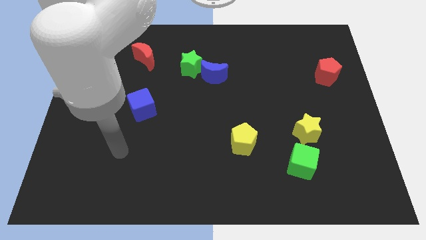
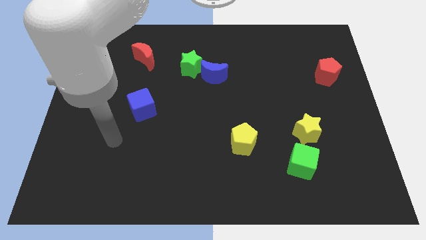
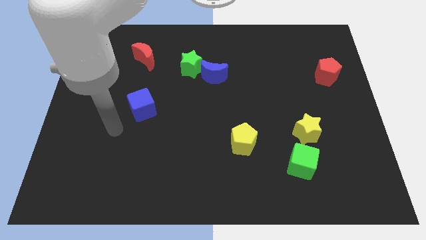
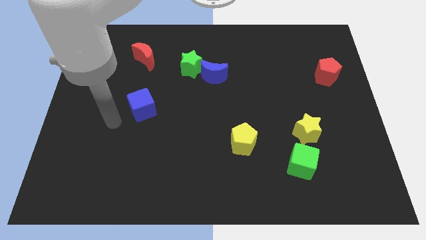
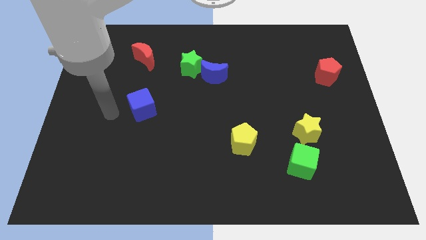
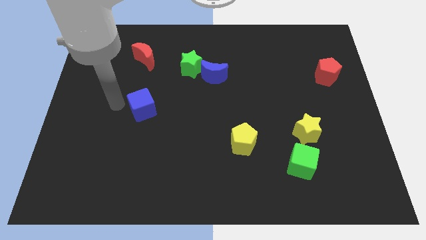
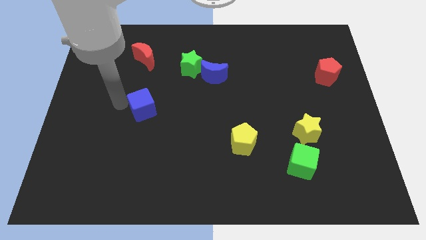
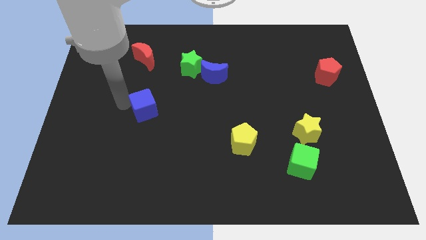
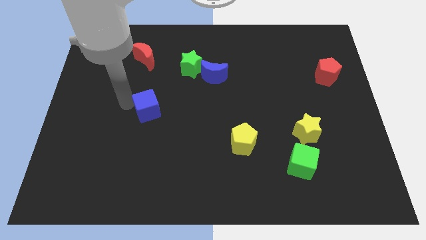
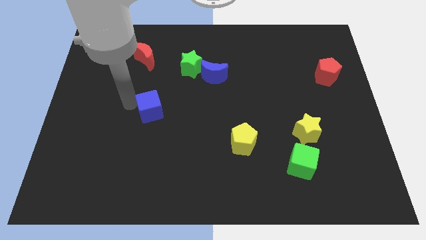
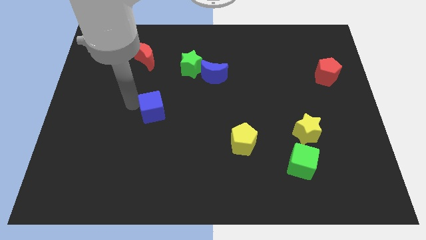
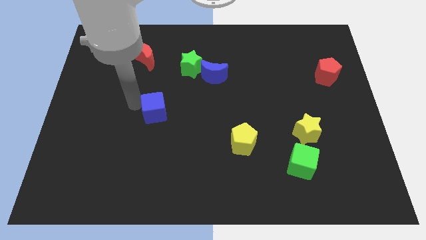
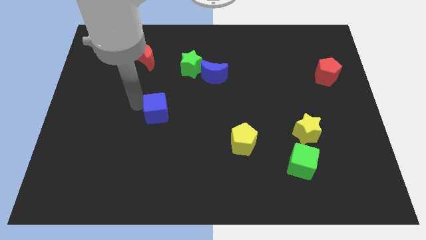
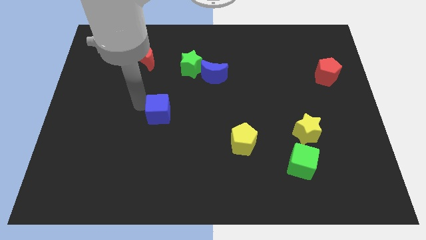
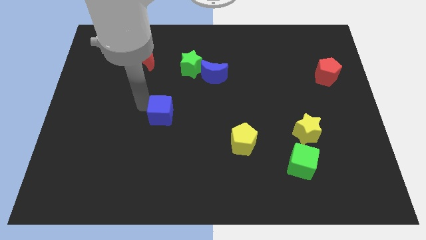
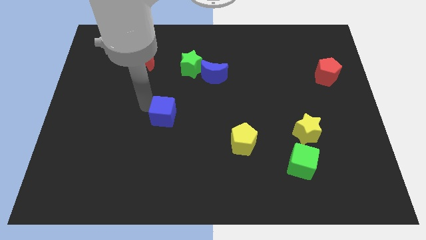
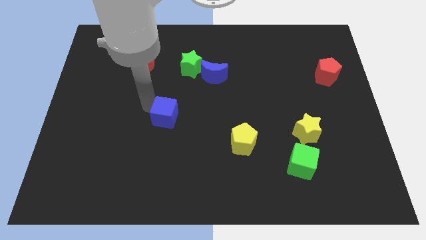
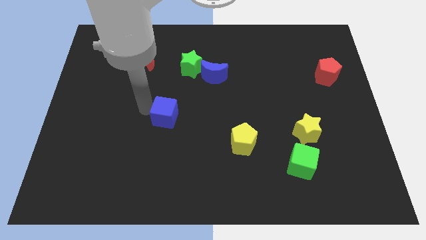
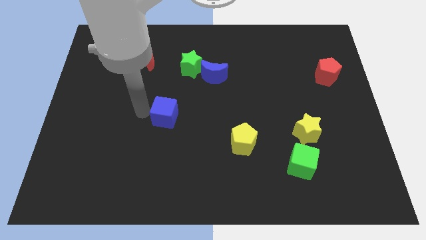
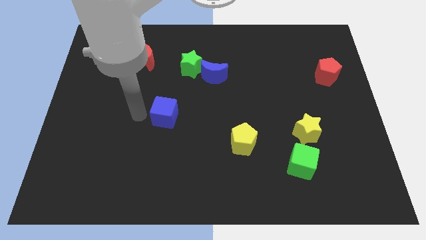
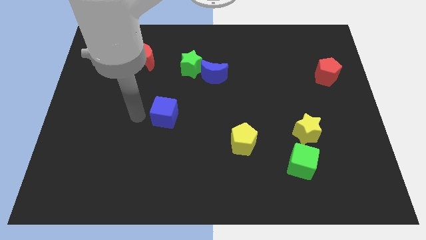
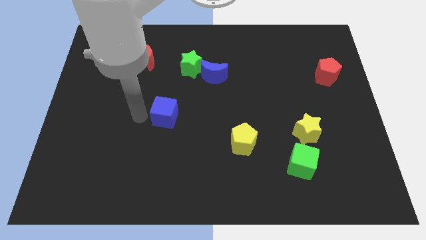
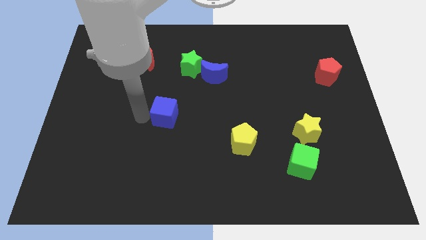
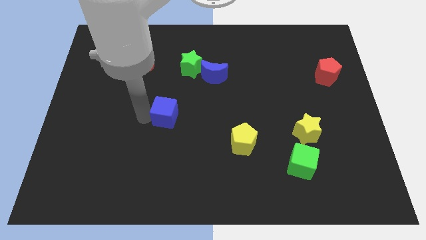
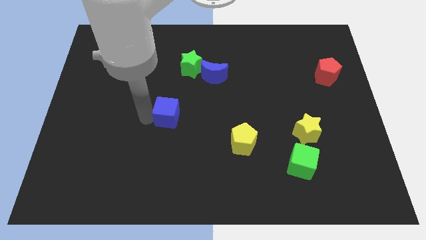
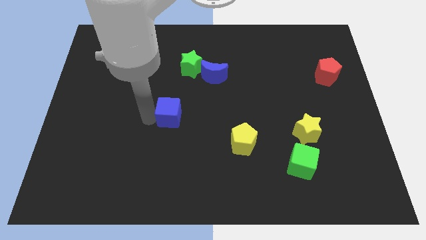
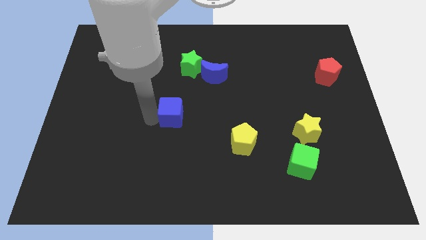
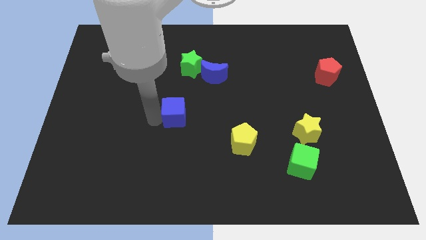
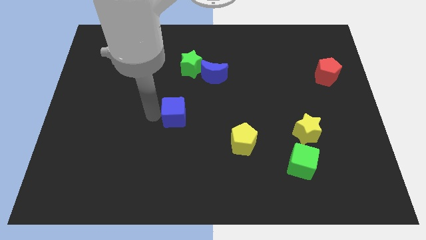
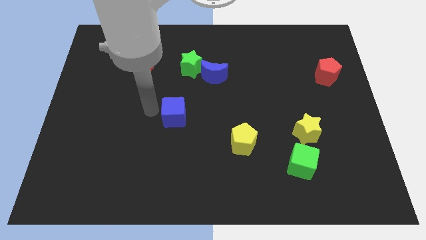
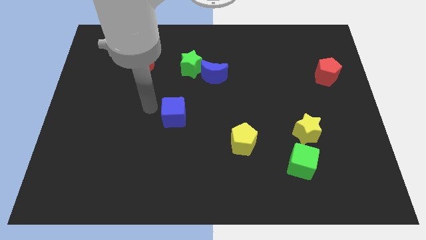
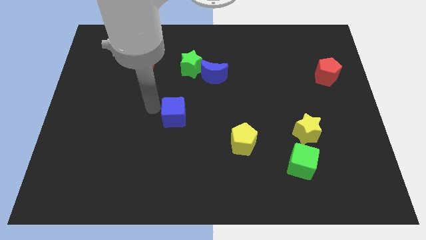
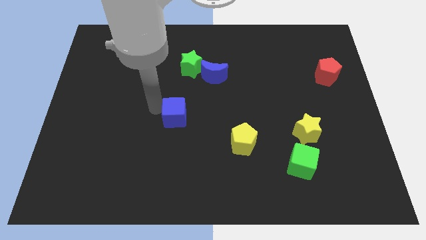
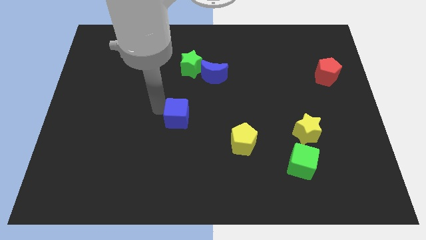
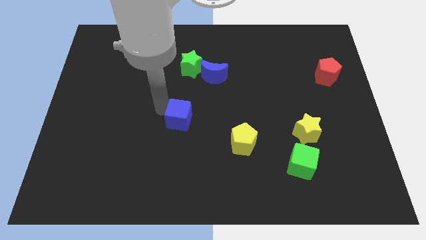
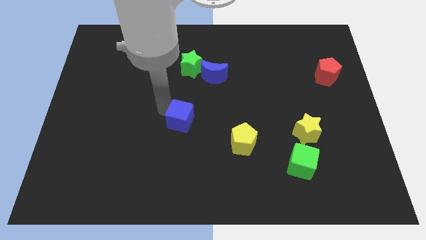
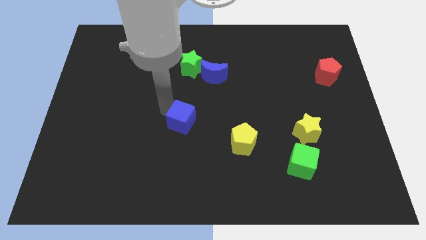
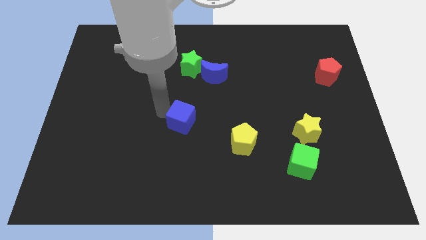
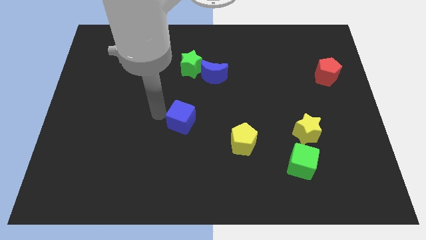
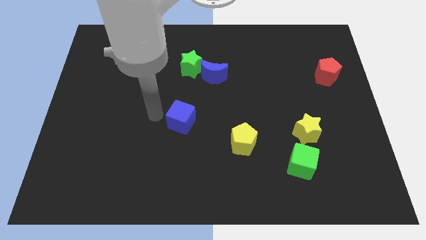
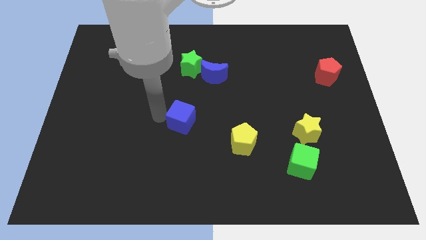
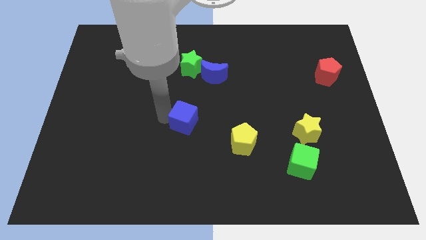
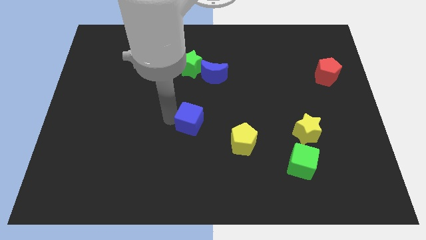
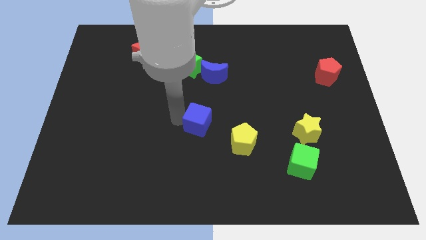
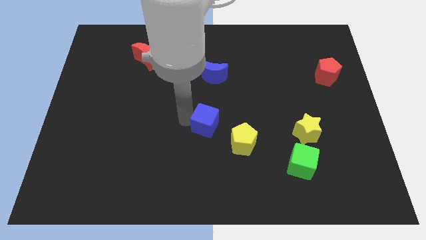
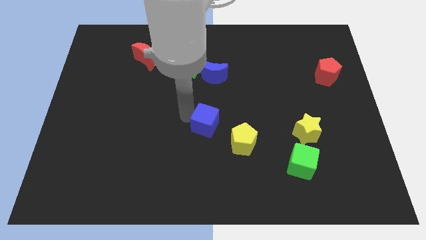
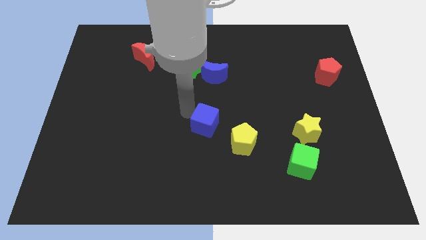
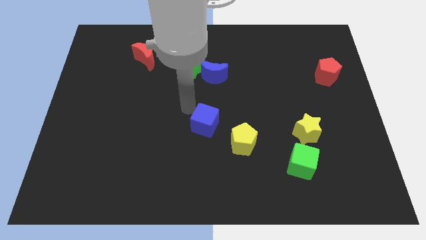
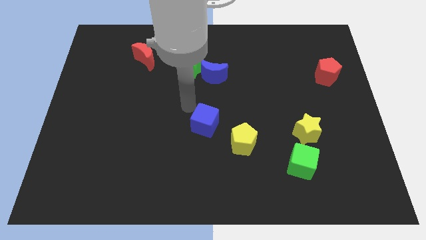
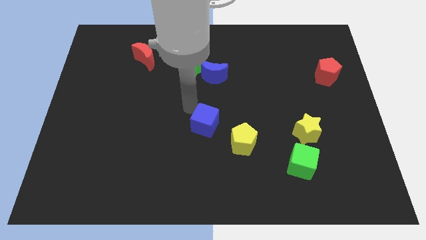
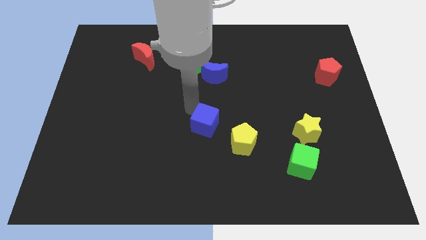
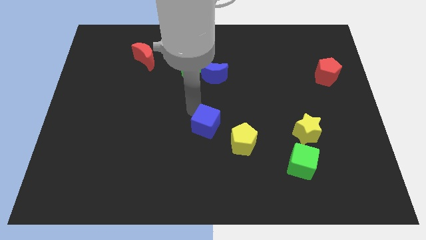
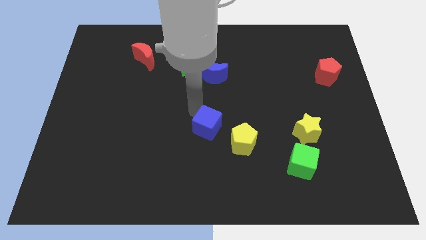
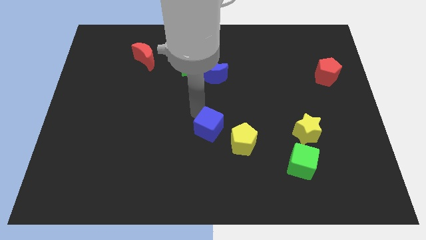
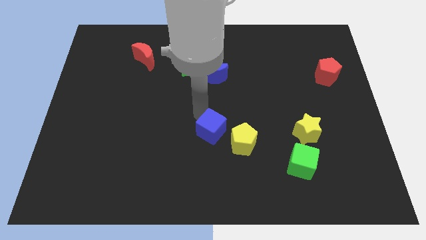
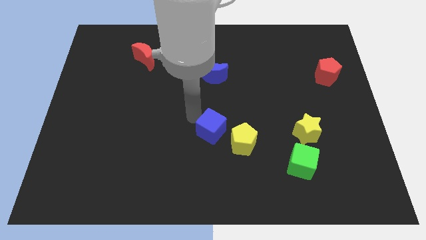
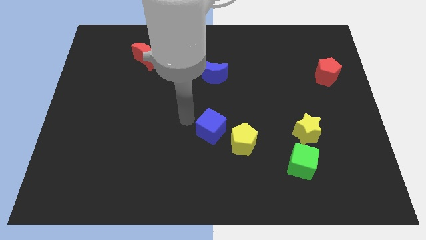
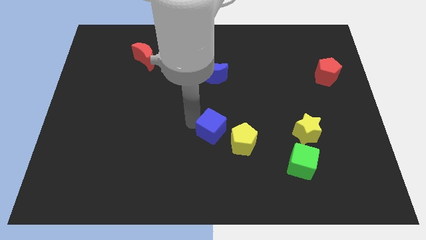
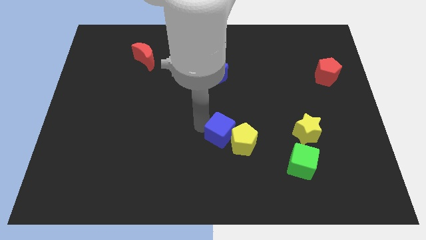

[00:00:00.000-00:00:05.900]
push the blue cube to the yellow pentagon
